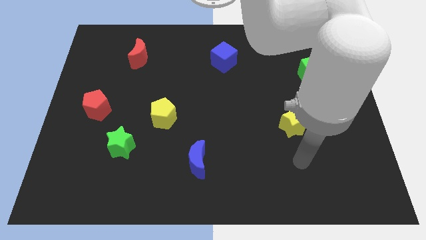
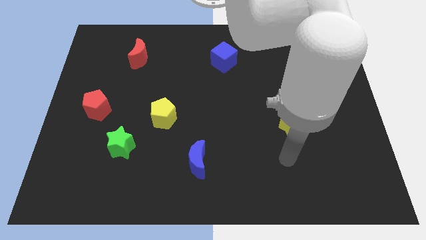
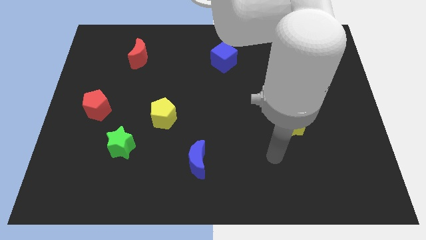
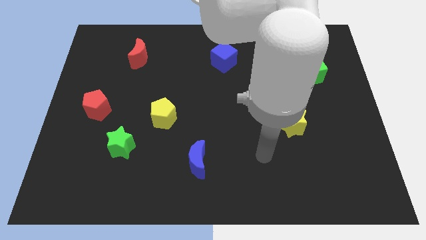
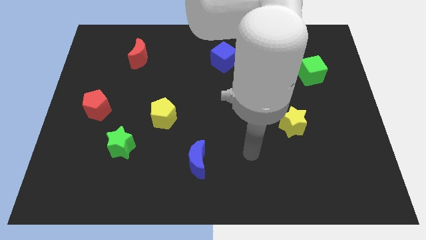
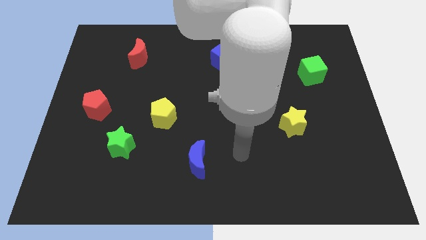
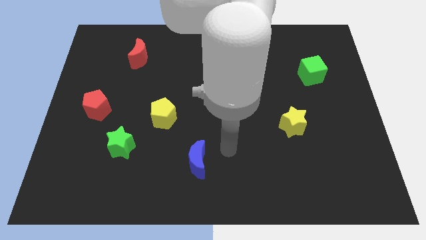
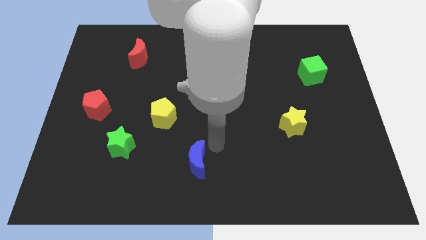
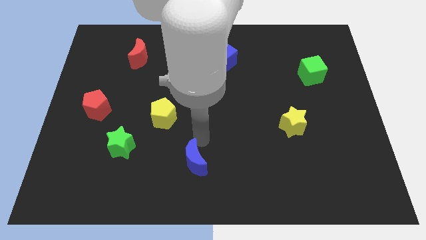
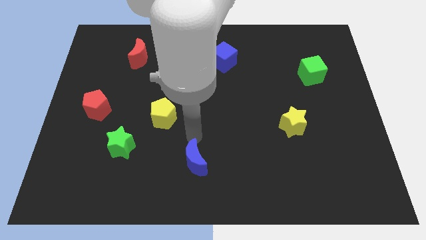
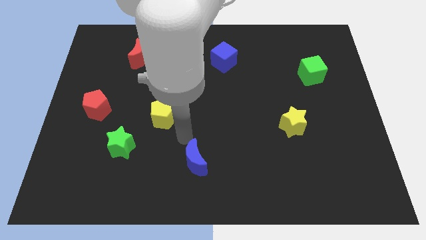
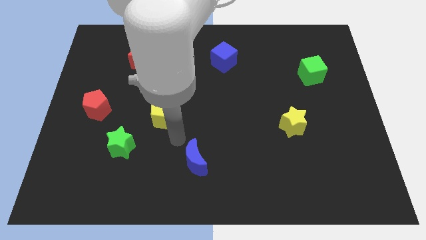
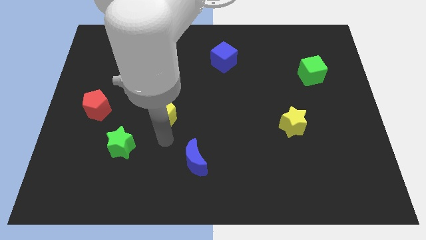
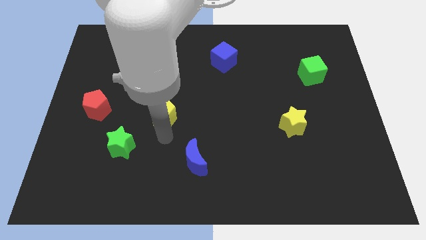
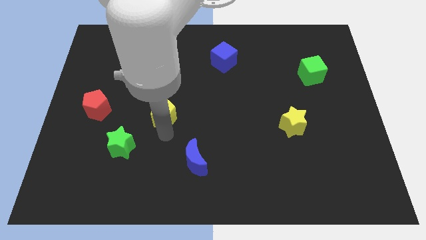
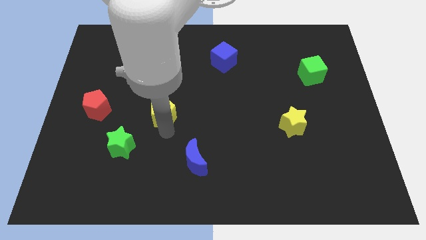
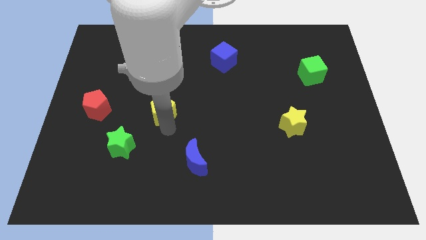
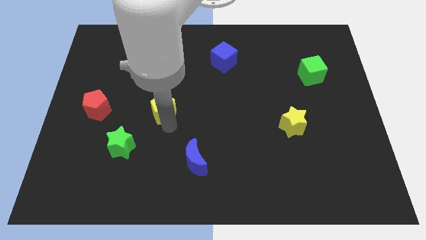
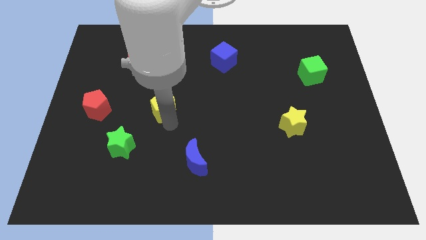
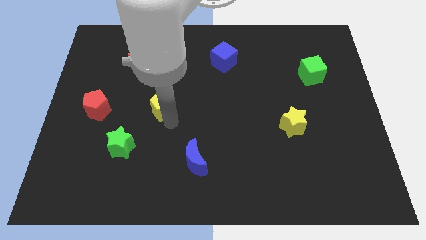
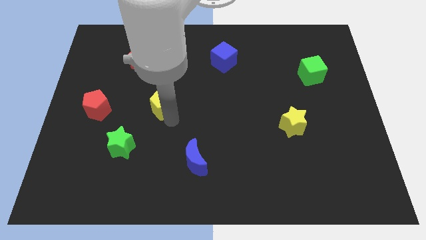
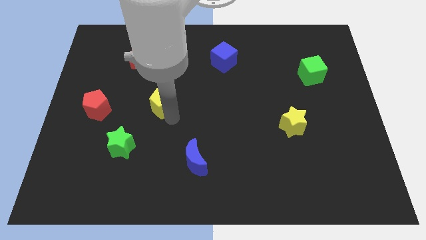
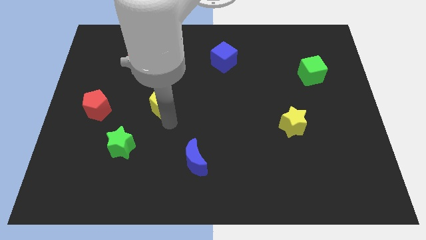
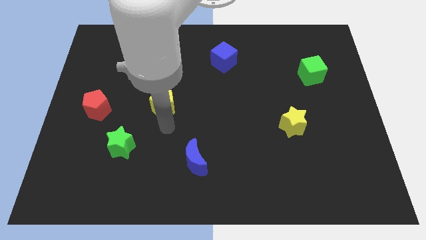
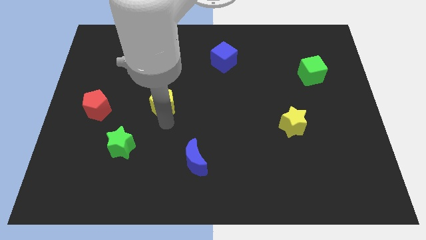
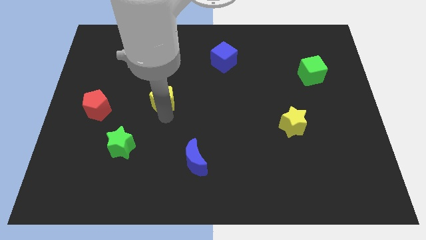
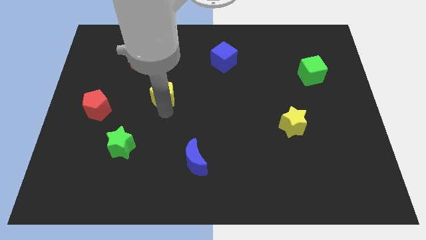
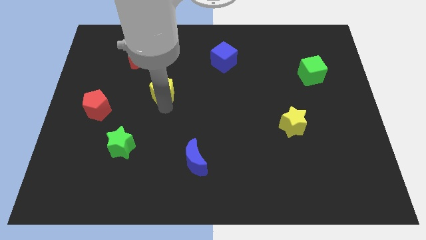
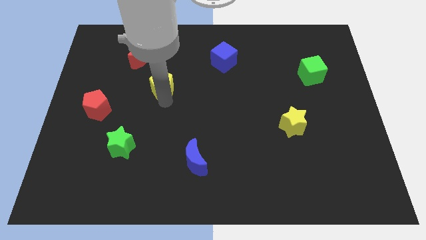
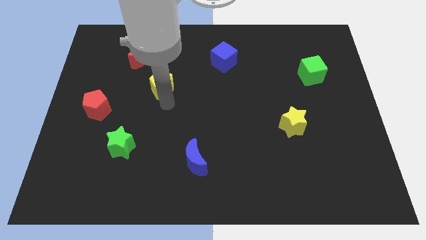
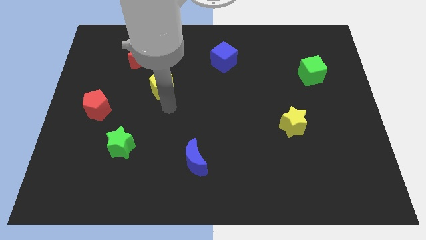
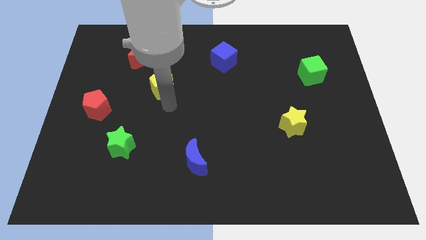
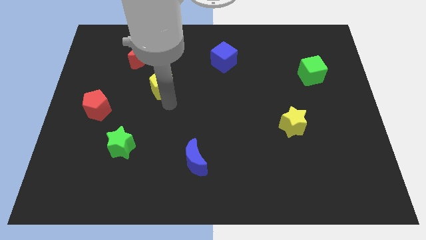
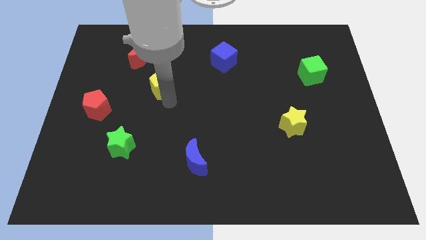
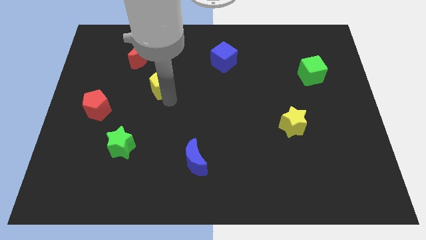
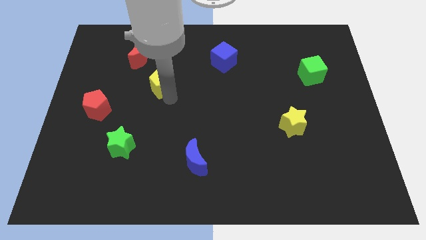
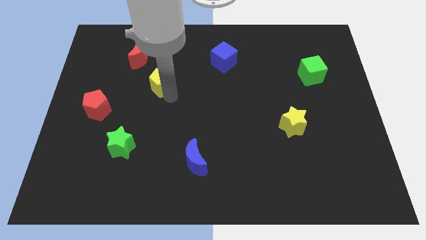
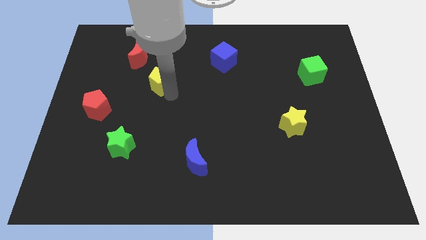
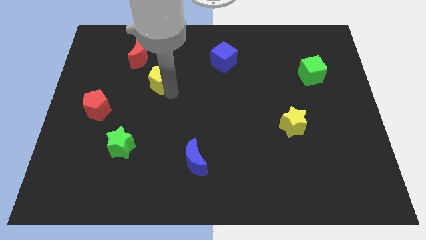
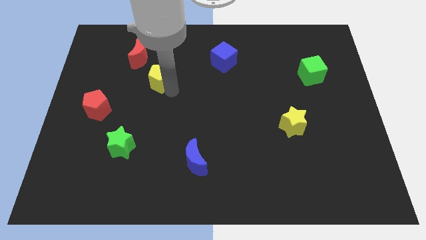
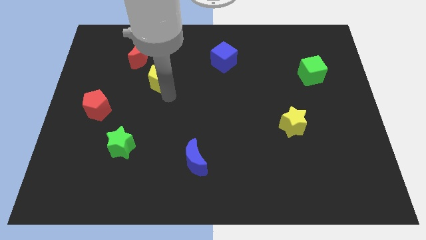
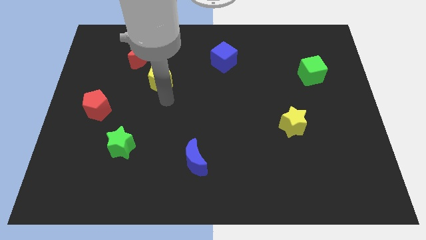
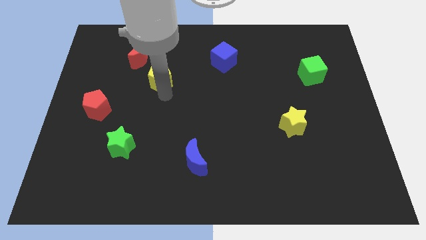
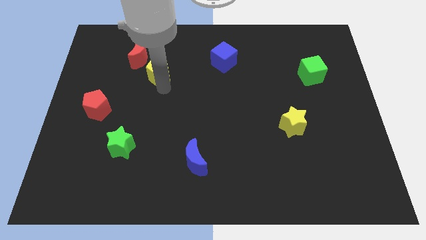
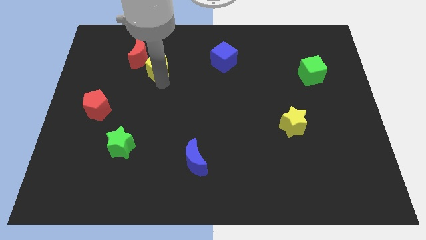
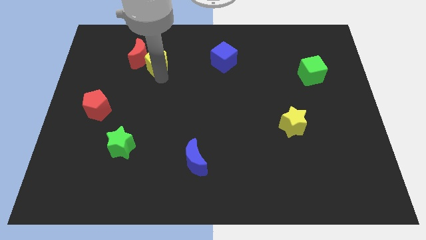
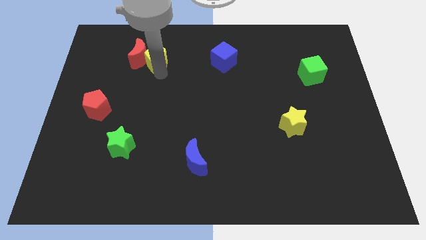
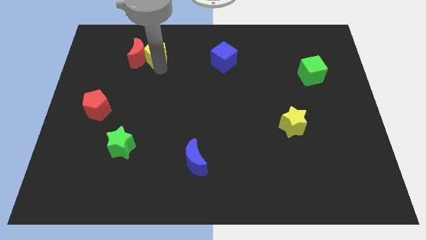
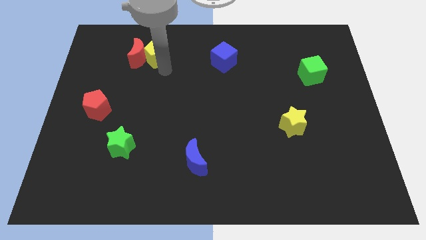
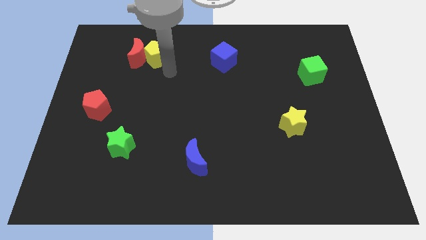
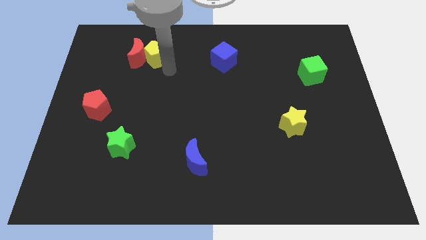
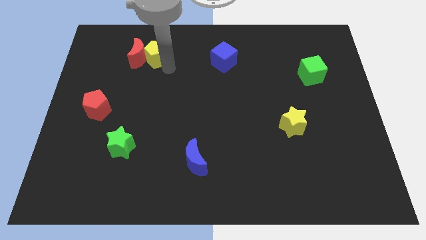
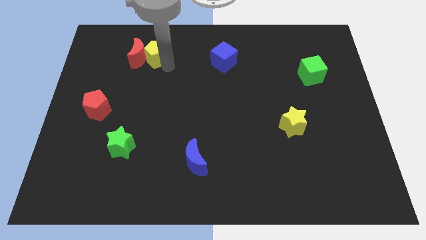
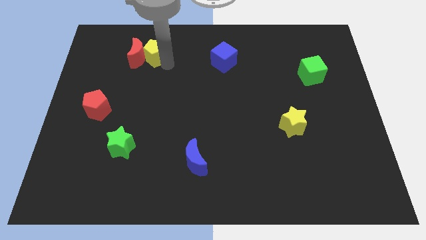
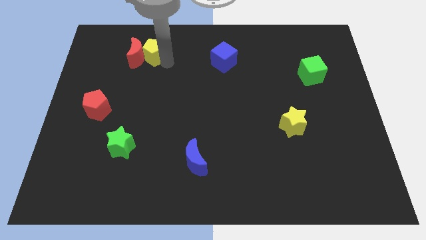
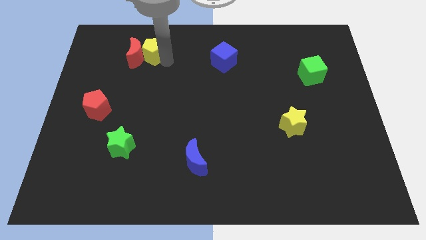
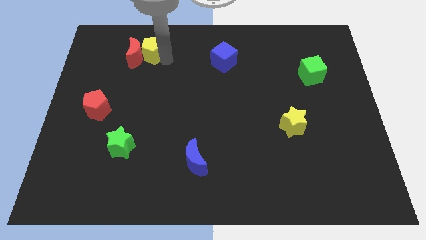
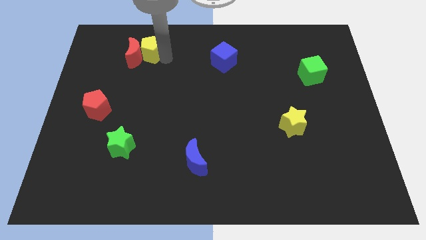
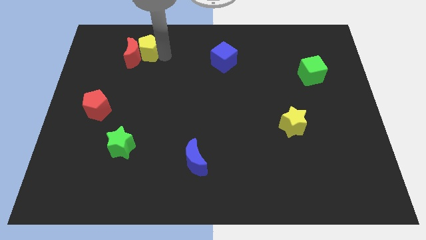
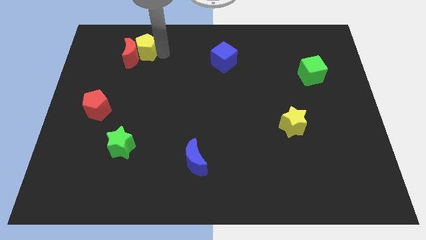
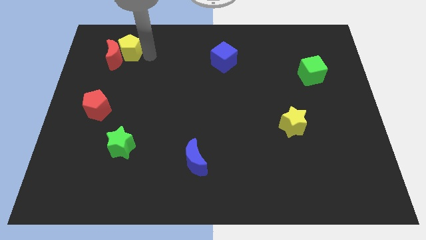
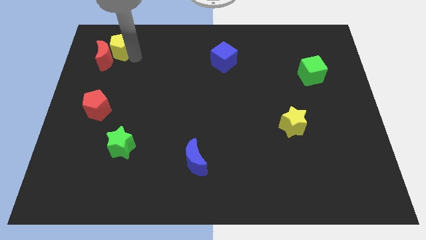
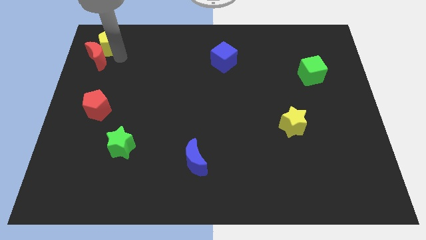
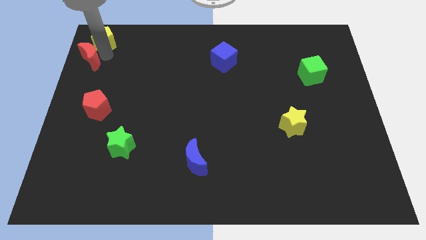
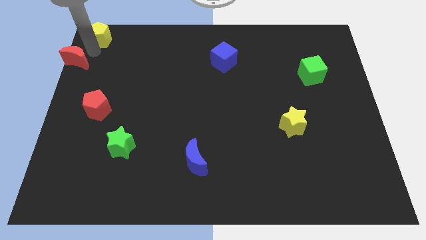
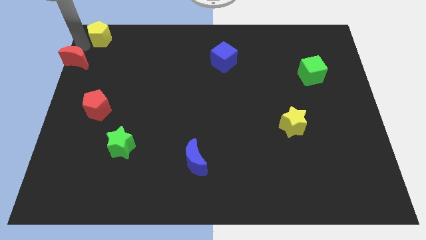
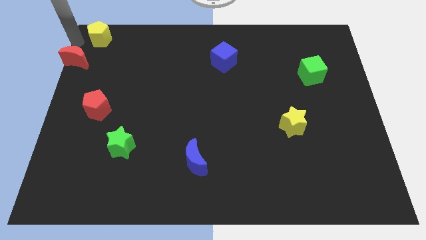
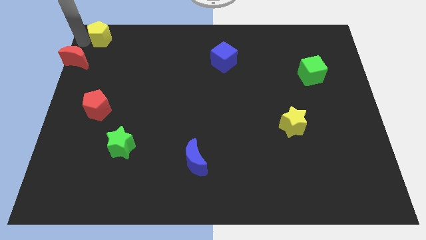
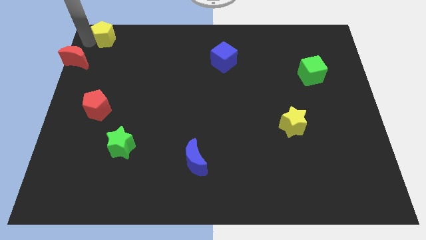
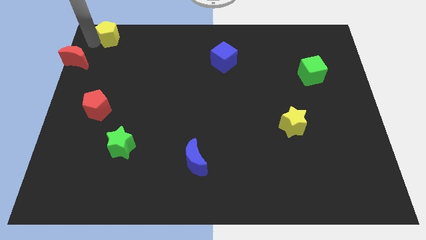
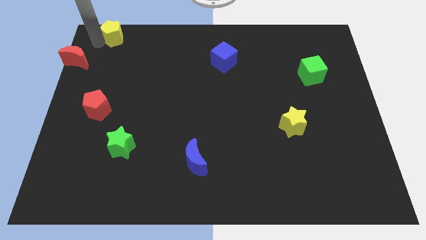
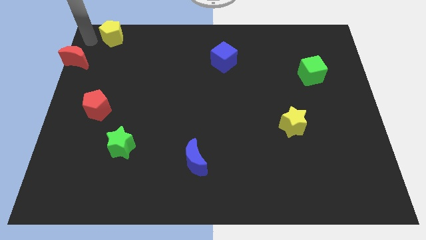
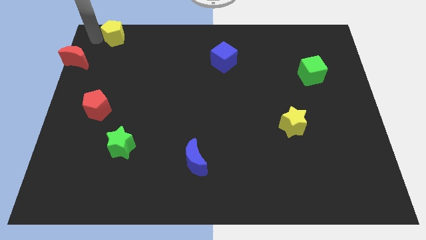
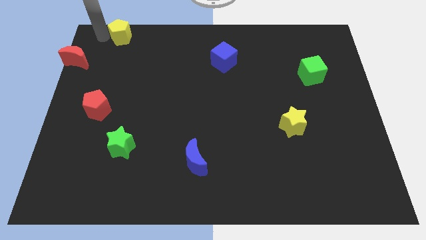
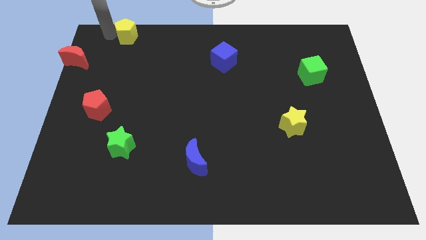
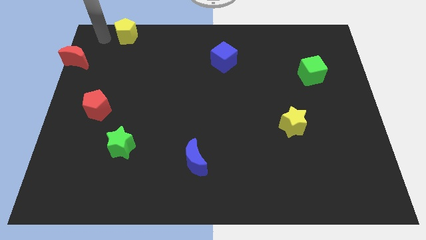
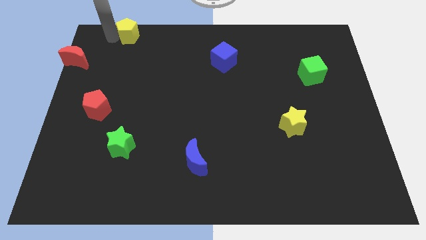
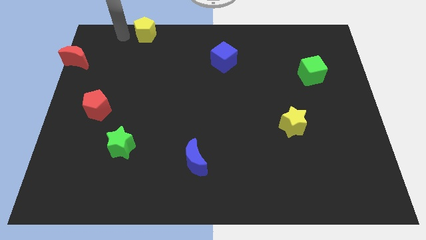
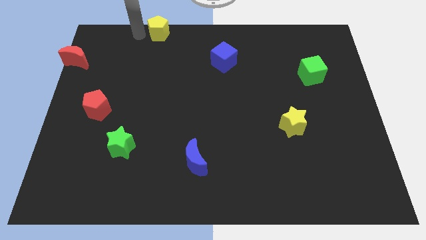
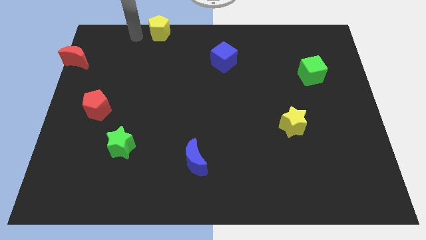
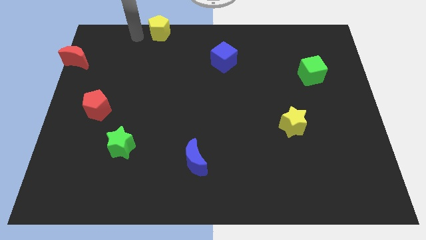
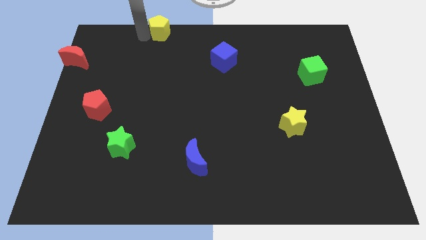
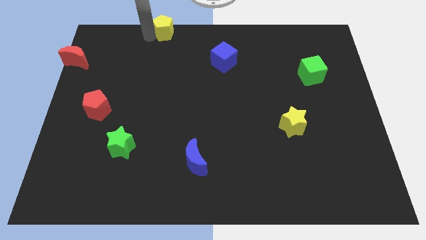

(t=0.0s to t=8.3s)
slide the yellow pentagon to the towards your base
